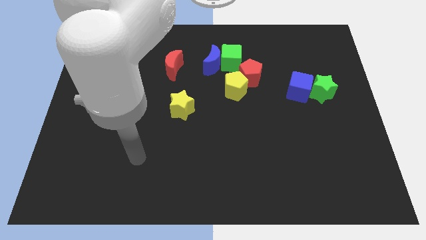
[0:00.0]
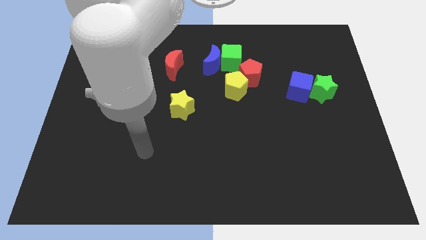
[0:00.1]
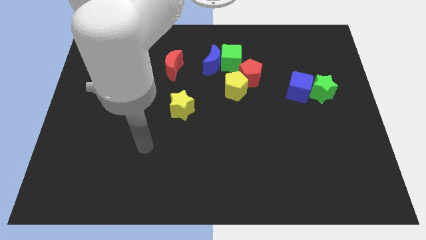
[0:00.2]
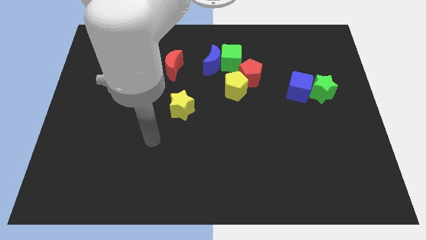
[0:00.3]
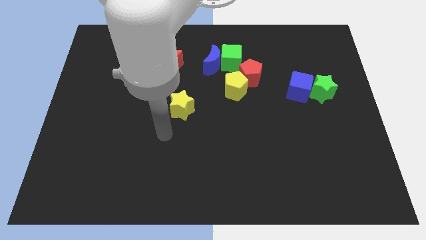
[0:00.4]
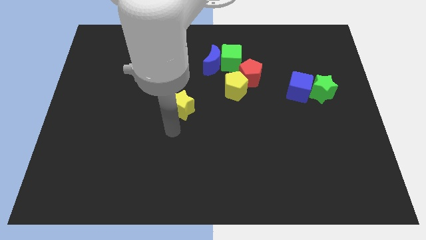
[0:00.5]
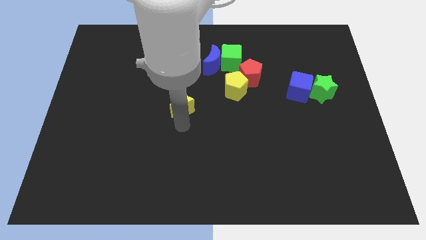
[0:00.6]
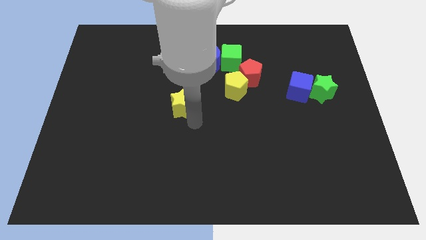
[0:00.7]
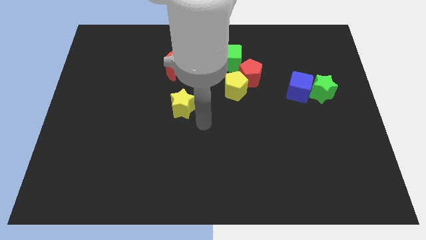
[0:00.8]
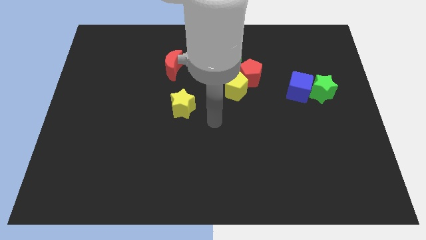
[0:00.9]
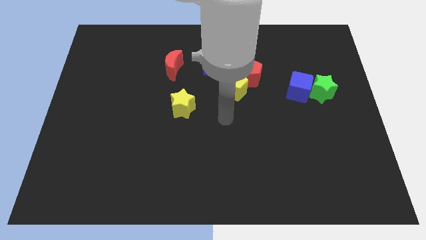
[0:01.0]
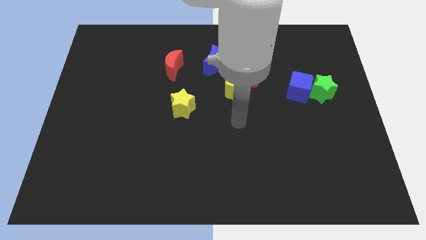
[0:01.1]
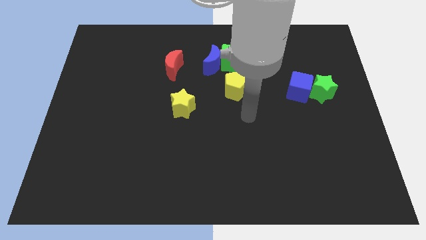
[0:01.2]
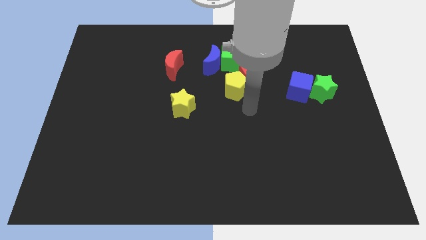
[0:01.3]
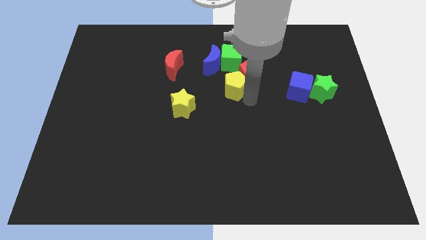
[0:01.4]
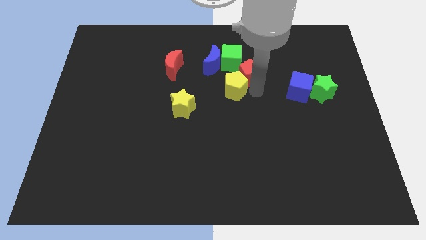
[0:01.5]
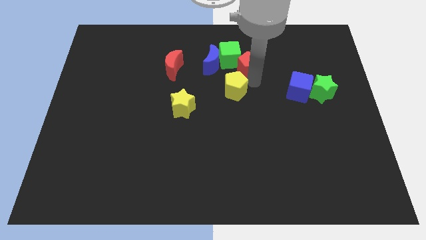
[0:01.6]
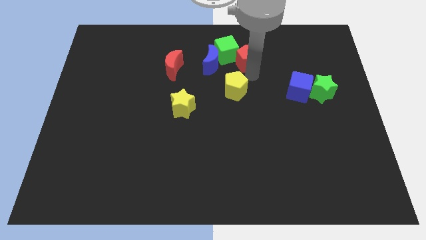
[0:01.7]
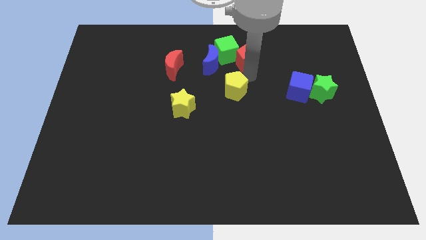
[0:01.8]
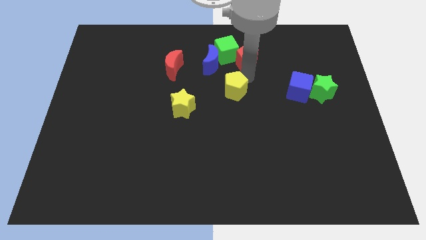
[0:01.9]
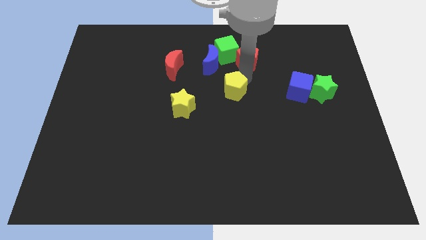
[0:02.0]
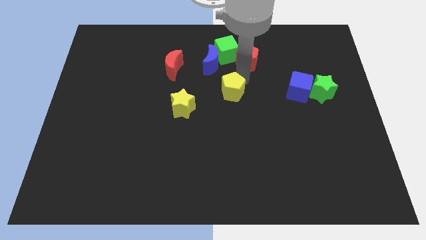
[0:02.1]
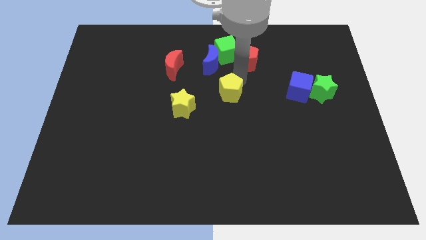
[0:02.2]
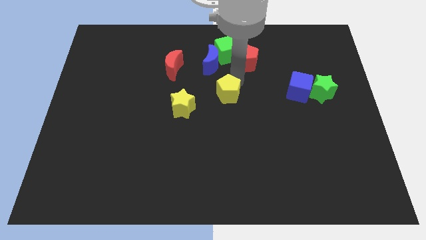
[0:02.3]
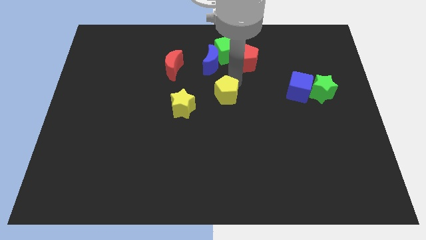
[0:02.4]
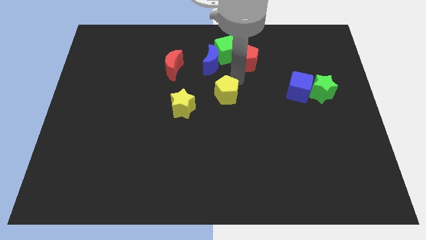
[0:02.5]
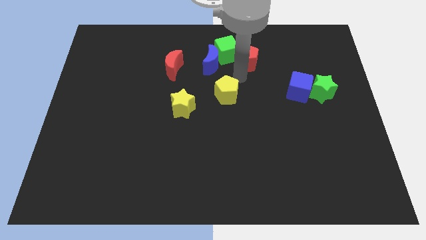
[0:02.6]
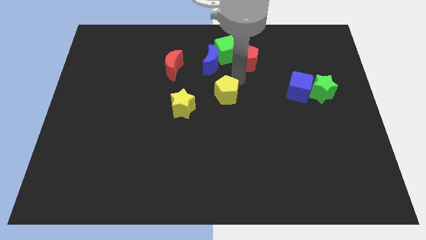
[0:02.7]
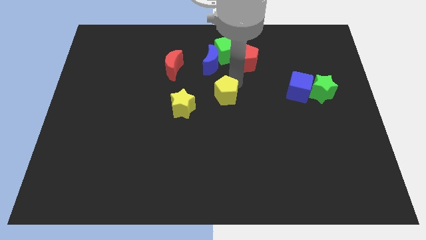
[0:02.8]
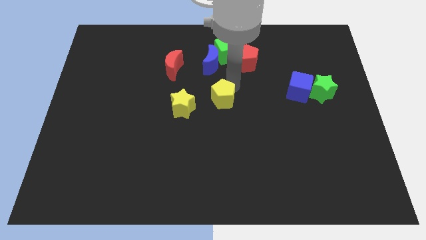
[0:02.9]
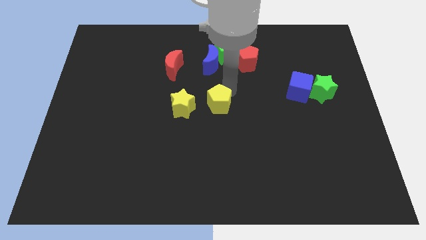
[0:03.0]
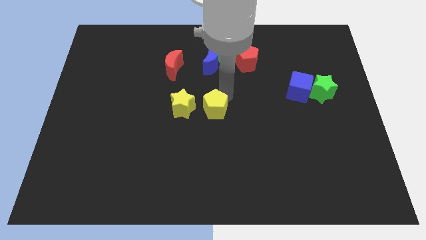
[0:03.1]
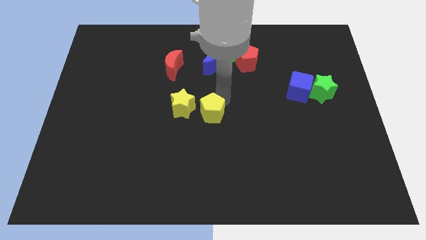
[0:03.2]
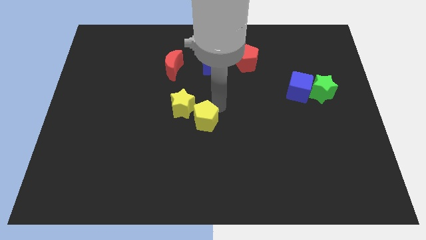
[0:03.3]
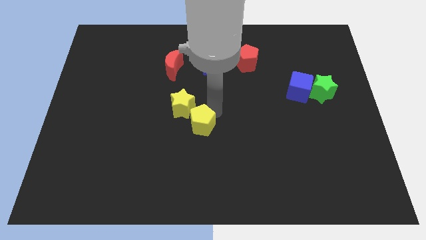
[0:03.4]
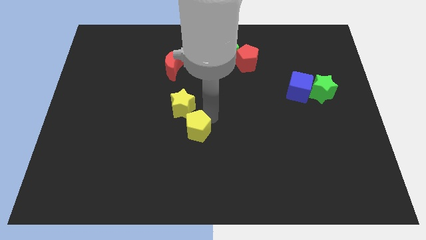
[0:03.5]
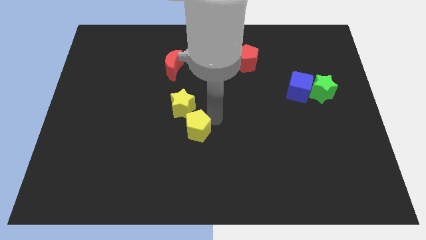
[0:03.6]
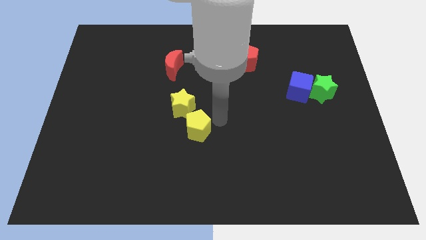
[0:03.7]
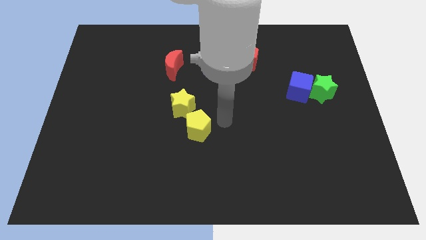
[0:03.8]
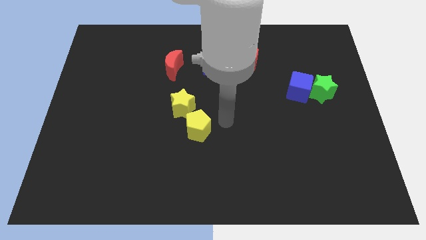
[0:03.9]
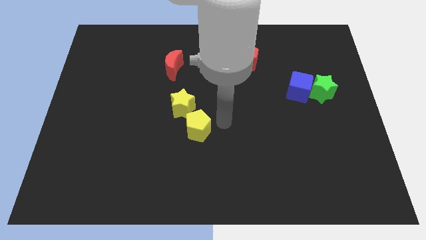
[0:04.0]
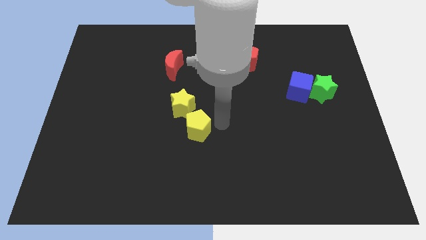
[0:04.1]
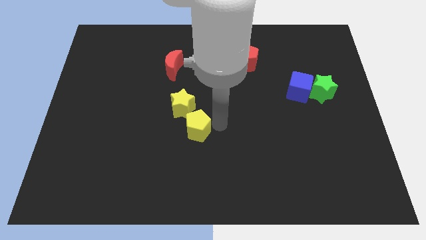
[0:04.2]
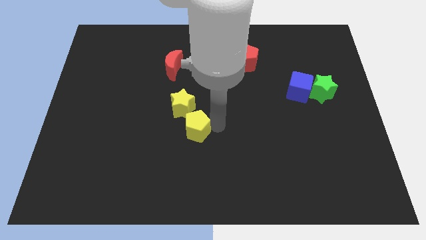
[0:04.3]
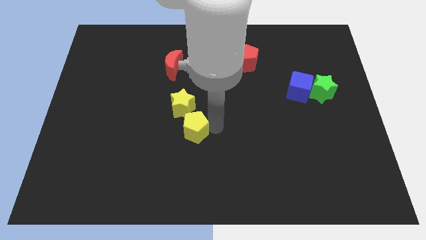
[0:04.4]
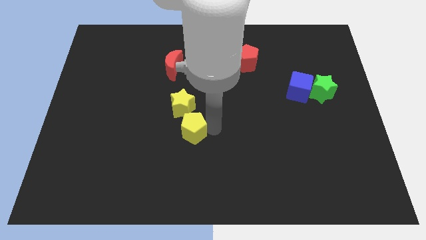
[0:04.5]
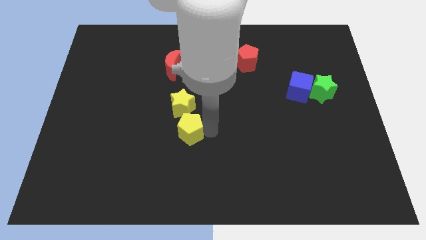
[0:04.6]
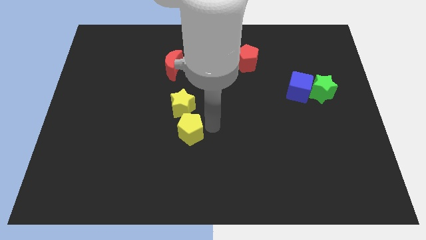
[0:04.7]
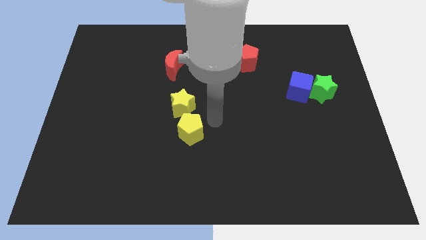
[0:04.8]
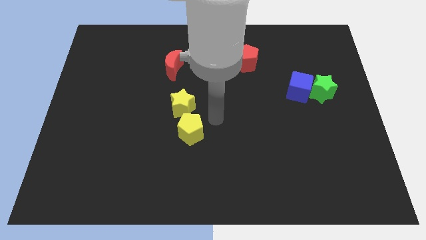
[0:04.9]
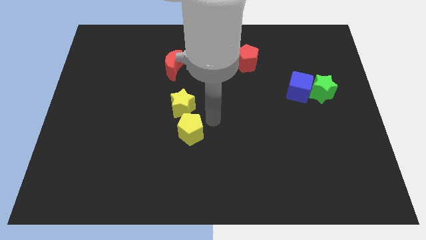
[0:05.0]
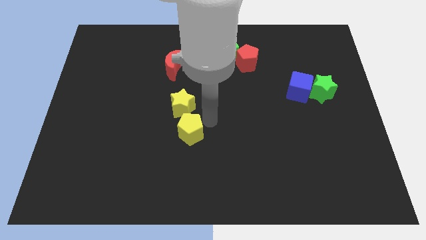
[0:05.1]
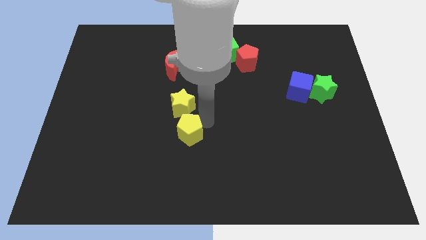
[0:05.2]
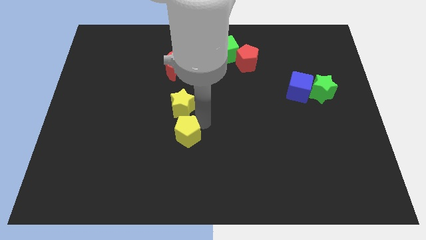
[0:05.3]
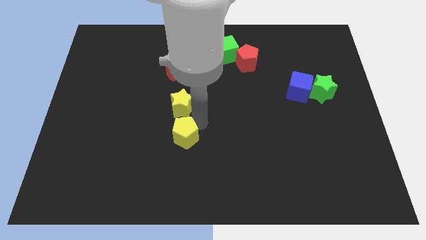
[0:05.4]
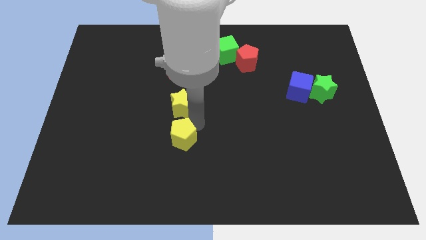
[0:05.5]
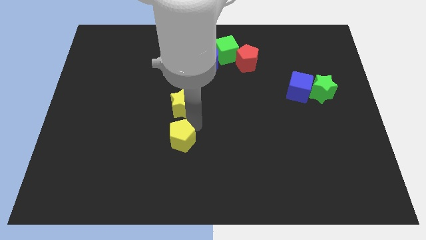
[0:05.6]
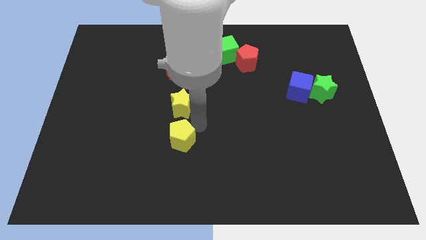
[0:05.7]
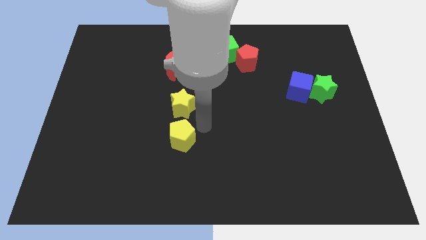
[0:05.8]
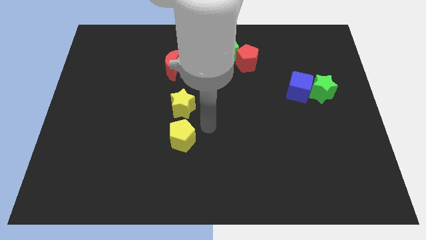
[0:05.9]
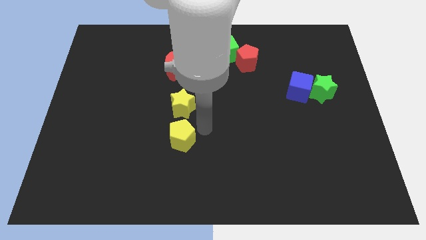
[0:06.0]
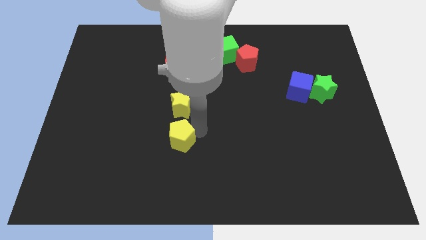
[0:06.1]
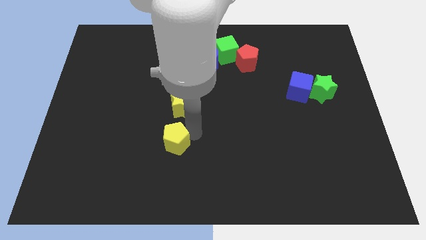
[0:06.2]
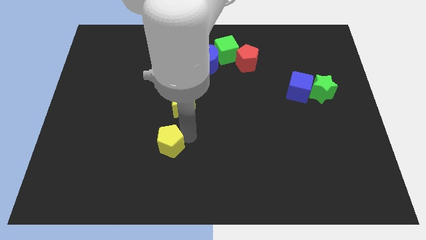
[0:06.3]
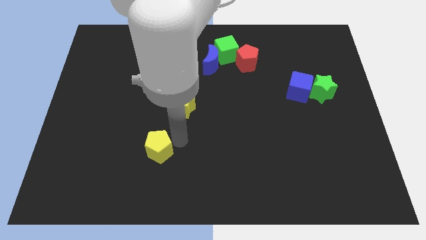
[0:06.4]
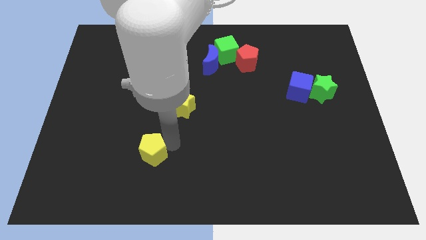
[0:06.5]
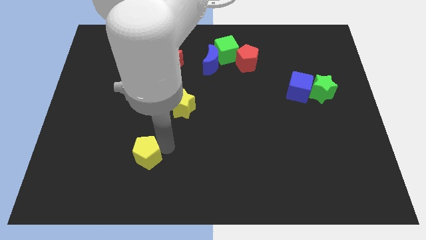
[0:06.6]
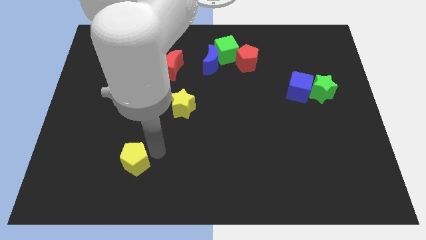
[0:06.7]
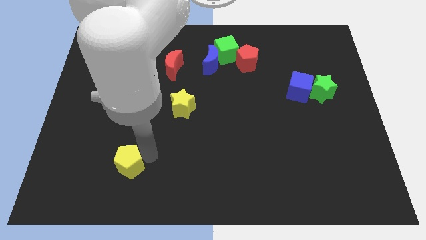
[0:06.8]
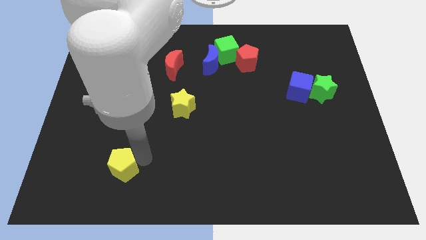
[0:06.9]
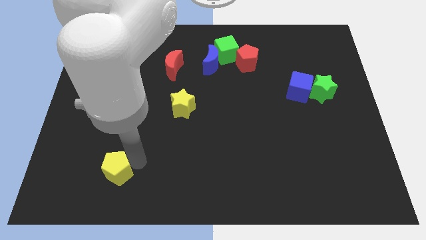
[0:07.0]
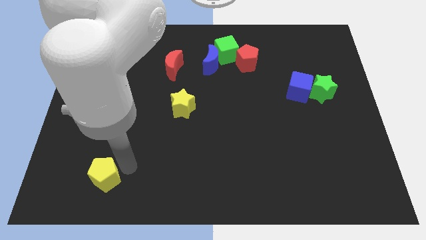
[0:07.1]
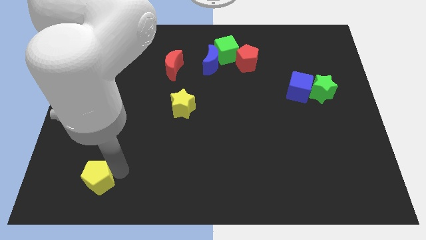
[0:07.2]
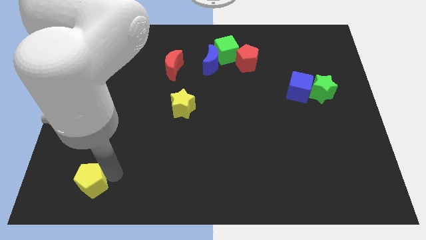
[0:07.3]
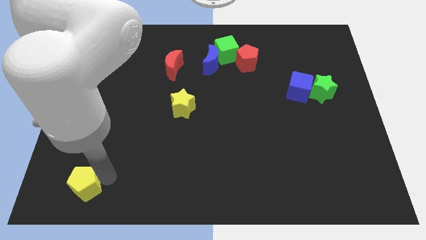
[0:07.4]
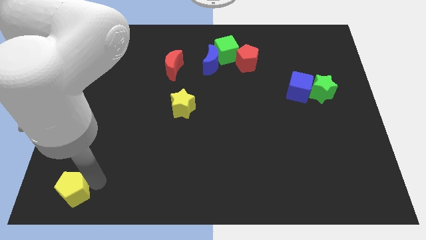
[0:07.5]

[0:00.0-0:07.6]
slide the yellow pentagon to the bottom left of the board
